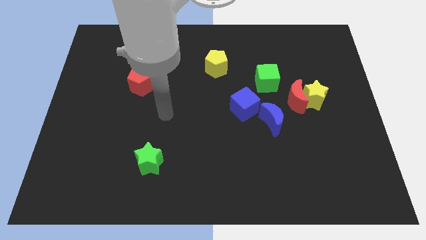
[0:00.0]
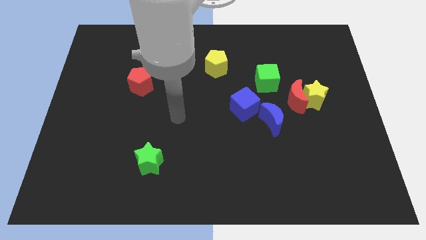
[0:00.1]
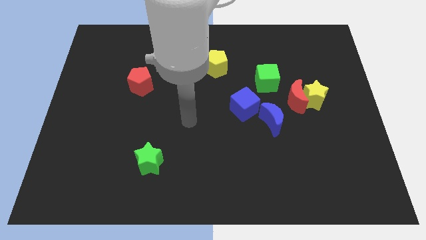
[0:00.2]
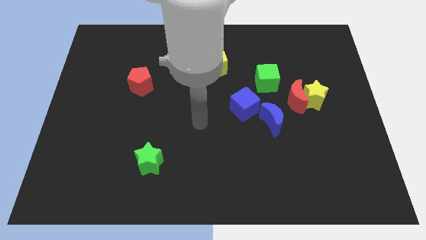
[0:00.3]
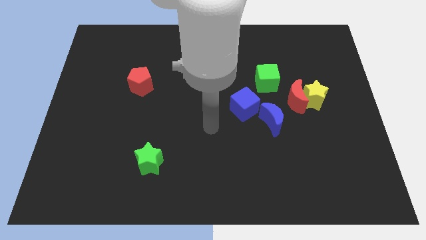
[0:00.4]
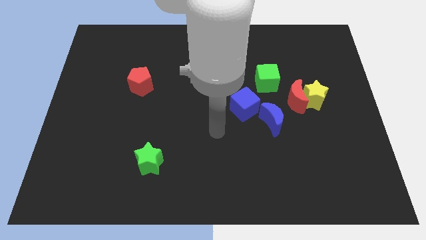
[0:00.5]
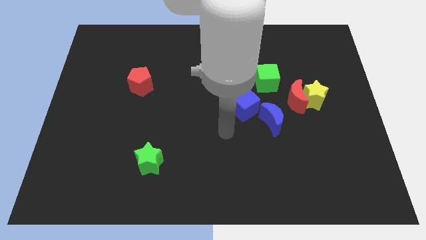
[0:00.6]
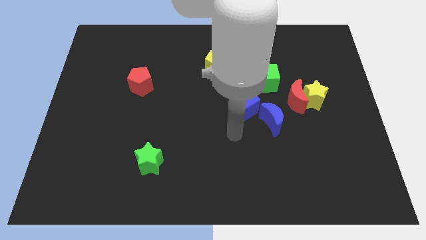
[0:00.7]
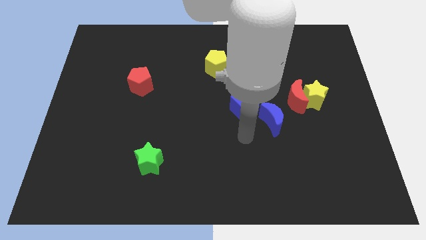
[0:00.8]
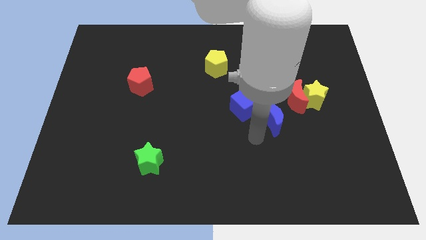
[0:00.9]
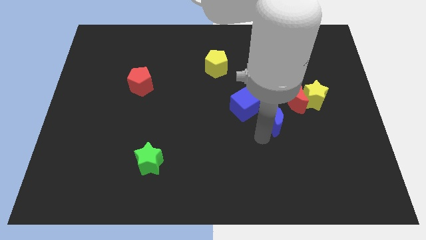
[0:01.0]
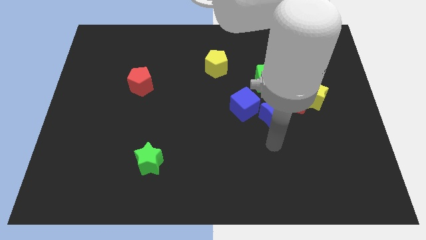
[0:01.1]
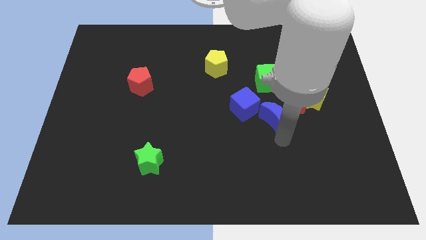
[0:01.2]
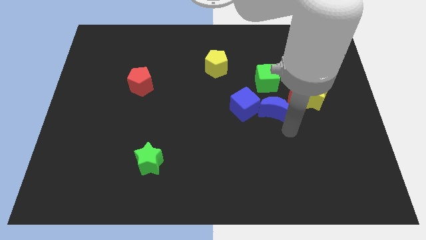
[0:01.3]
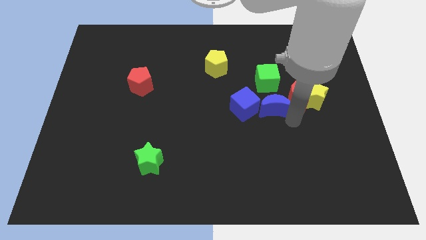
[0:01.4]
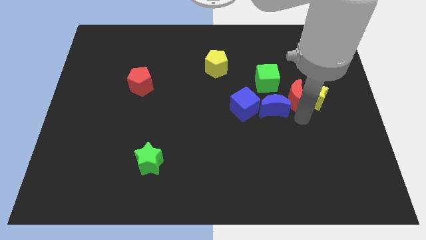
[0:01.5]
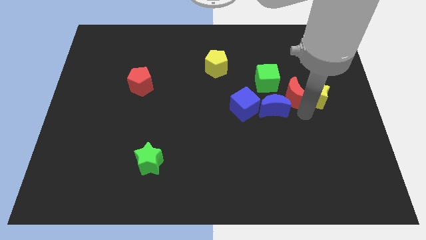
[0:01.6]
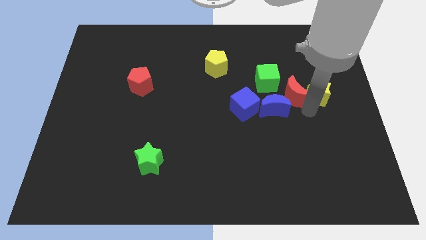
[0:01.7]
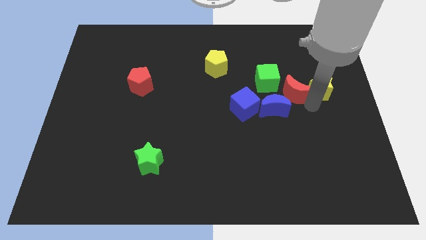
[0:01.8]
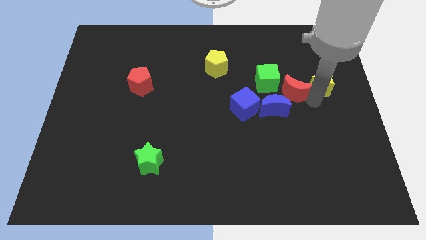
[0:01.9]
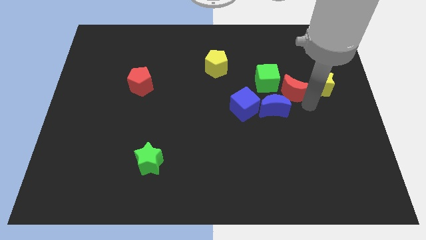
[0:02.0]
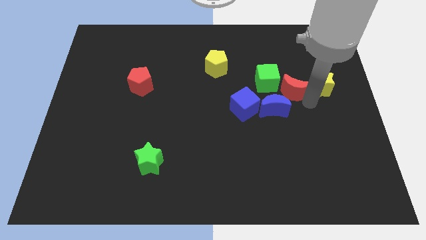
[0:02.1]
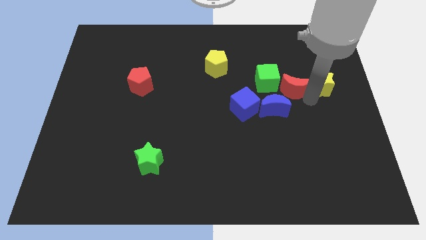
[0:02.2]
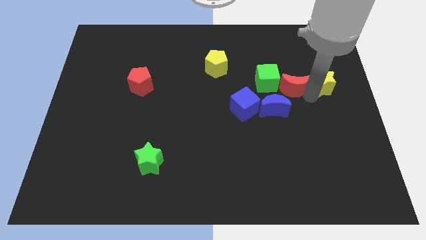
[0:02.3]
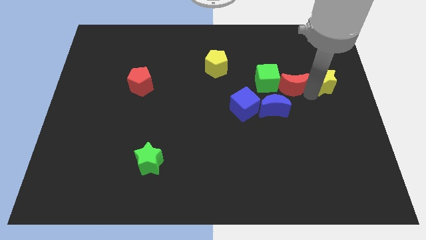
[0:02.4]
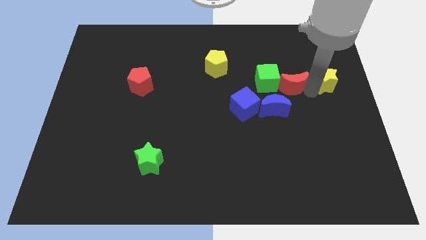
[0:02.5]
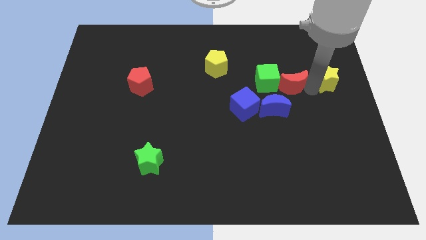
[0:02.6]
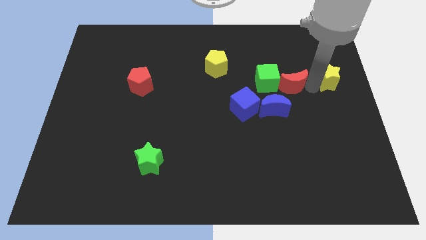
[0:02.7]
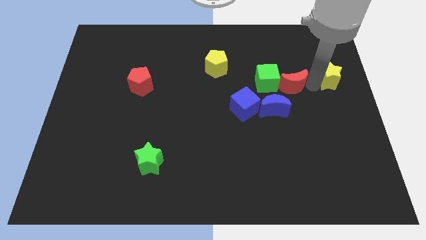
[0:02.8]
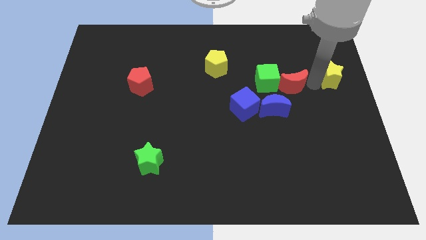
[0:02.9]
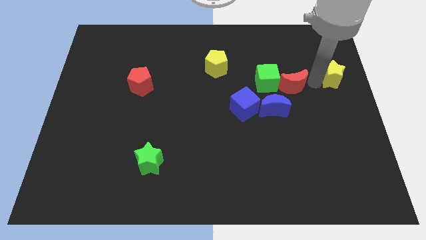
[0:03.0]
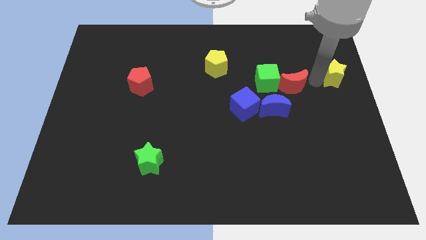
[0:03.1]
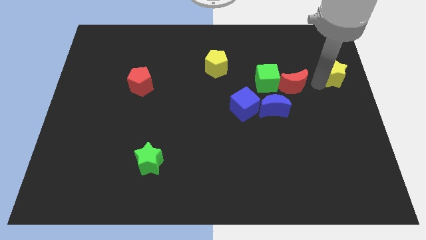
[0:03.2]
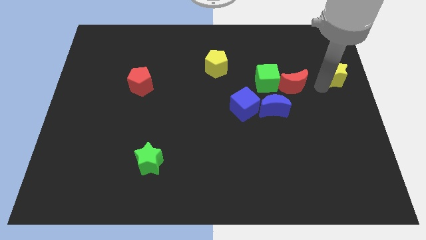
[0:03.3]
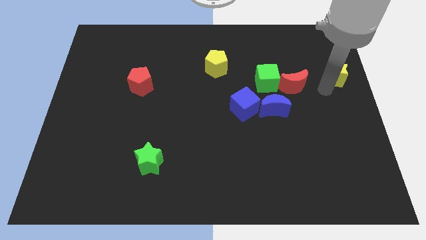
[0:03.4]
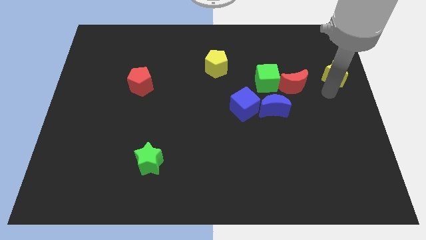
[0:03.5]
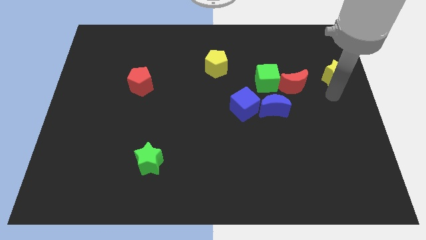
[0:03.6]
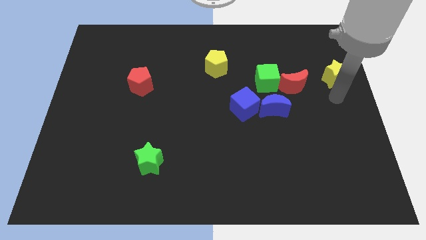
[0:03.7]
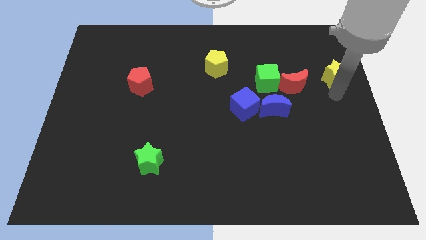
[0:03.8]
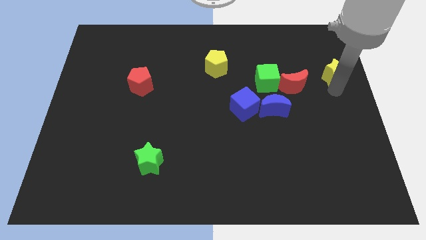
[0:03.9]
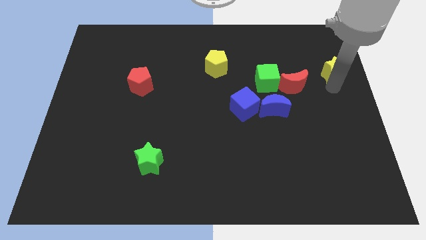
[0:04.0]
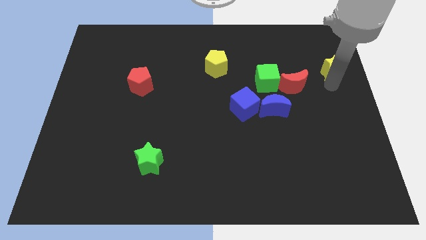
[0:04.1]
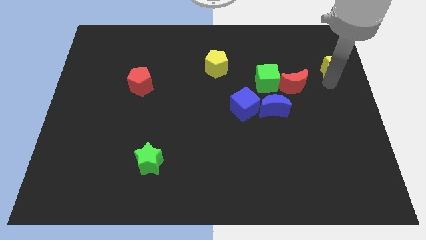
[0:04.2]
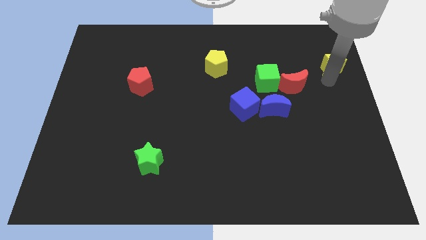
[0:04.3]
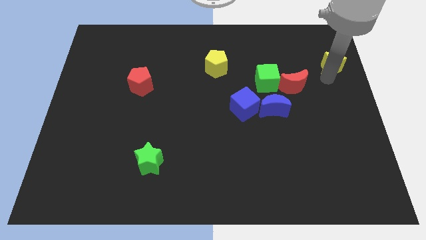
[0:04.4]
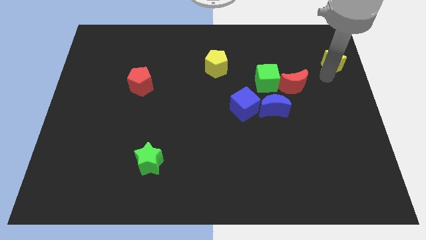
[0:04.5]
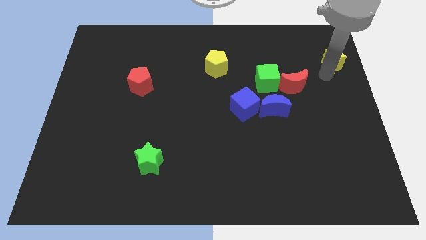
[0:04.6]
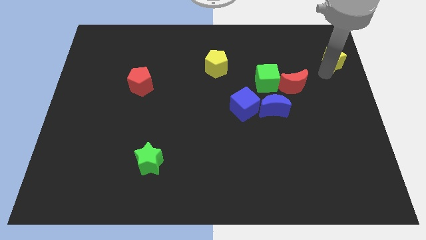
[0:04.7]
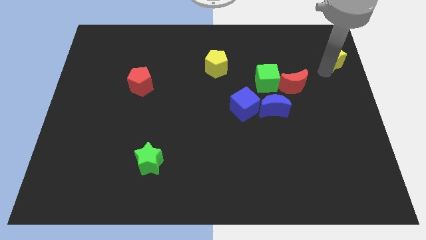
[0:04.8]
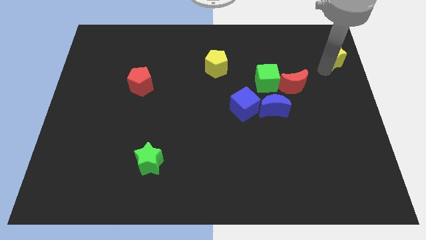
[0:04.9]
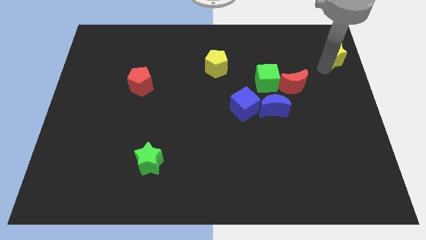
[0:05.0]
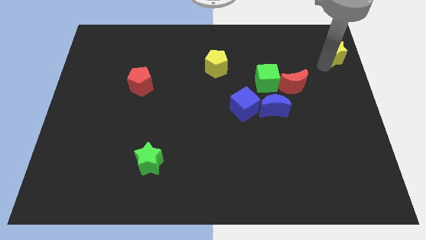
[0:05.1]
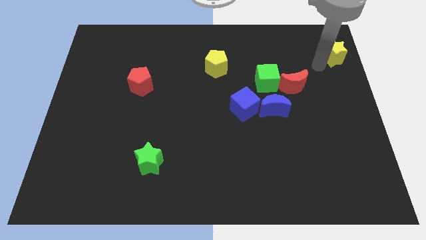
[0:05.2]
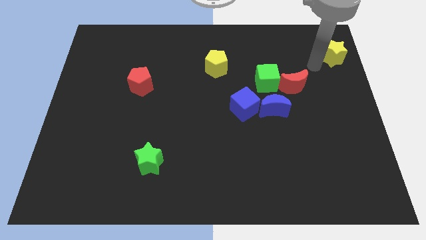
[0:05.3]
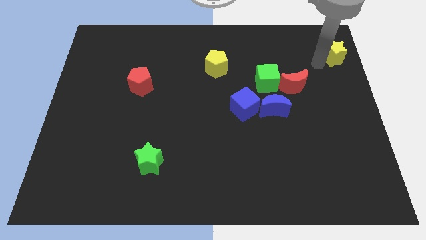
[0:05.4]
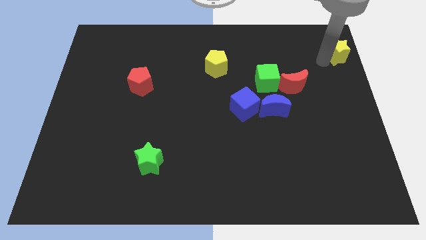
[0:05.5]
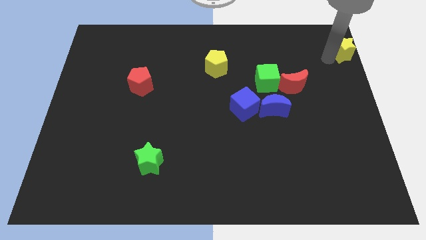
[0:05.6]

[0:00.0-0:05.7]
push the yellow star to the top right corner

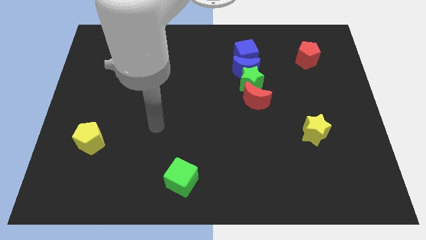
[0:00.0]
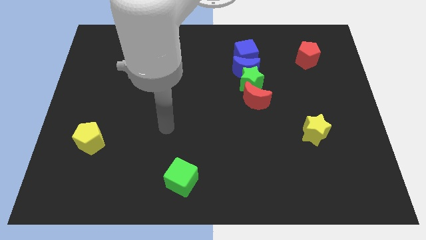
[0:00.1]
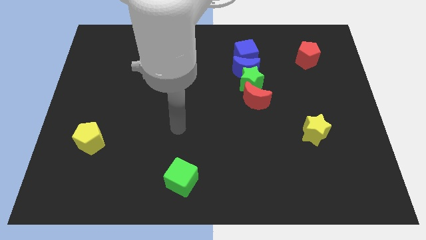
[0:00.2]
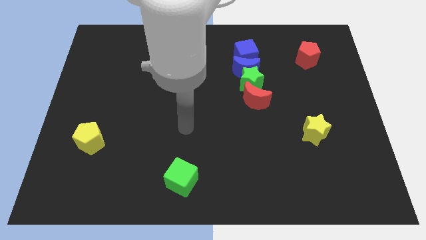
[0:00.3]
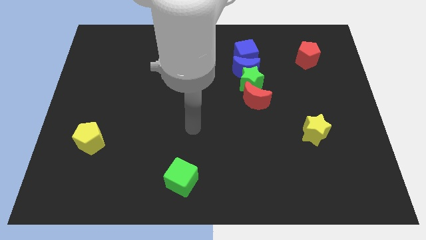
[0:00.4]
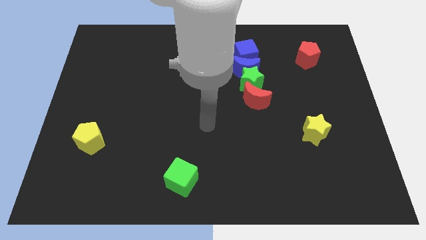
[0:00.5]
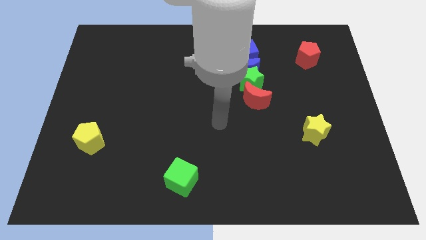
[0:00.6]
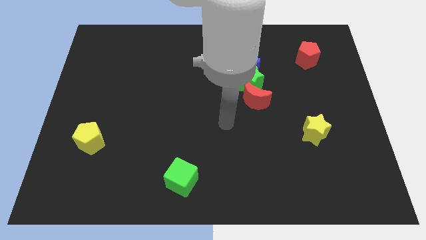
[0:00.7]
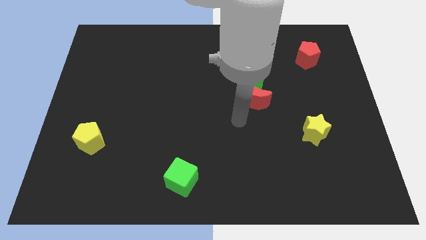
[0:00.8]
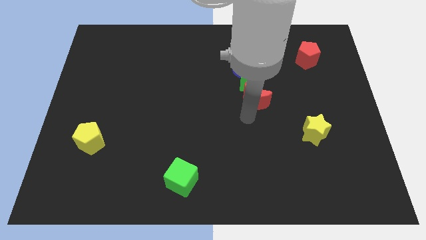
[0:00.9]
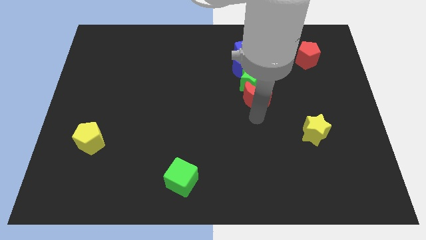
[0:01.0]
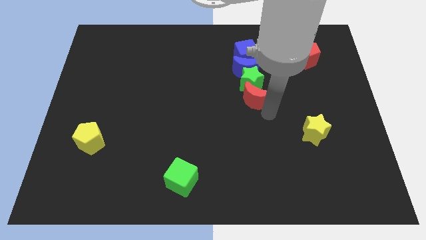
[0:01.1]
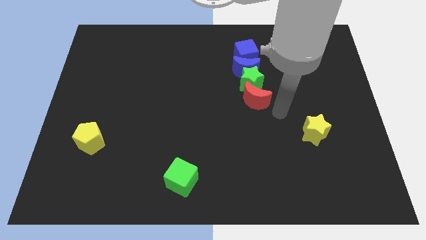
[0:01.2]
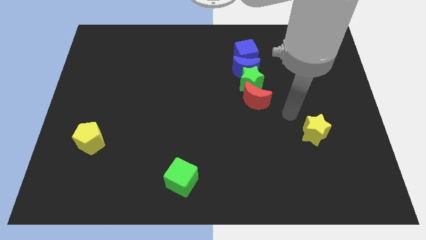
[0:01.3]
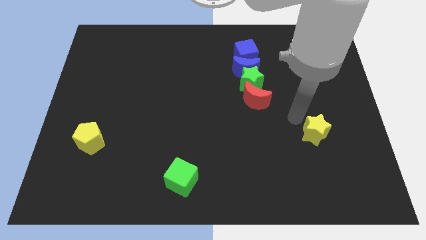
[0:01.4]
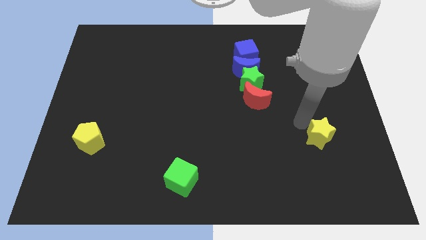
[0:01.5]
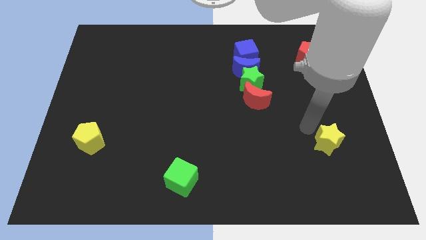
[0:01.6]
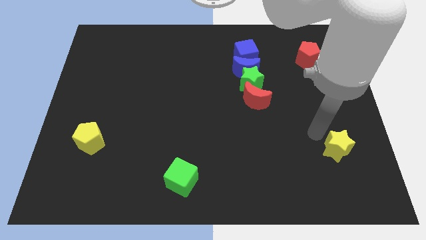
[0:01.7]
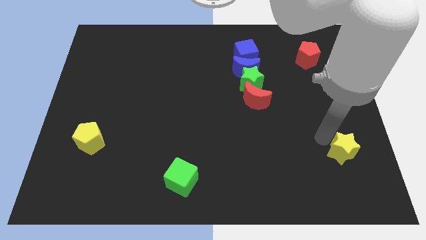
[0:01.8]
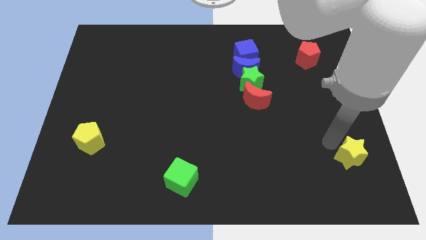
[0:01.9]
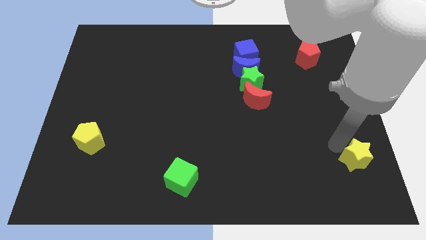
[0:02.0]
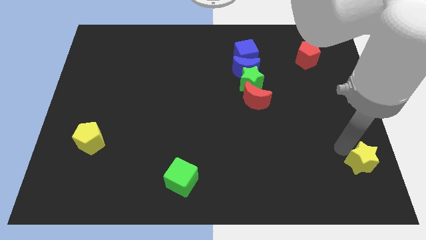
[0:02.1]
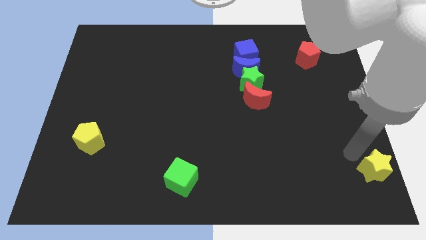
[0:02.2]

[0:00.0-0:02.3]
slide the yellow star to the bottom right of the board

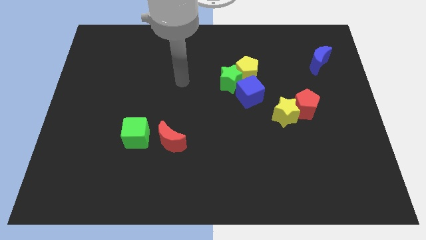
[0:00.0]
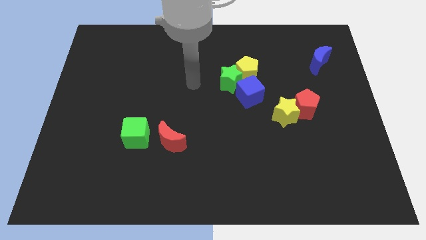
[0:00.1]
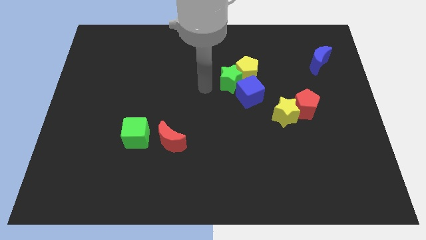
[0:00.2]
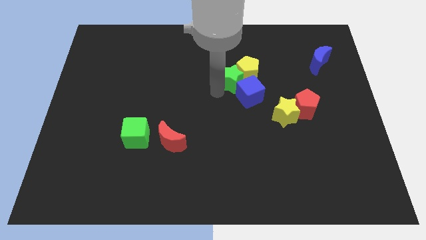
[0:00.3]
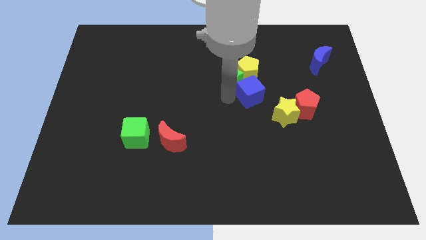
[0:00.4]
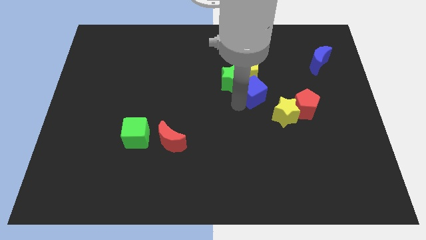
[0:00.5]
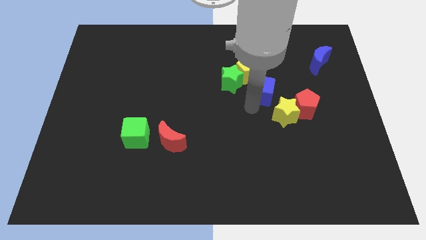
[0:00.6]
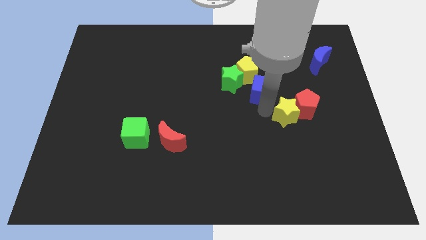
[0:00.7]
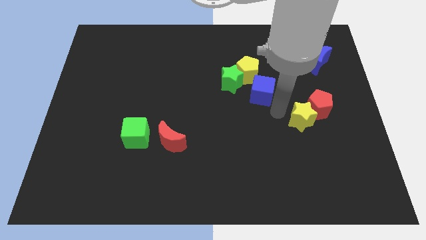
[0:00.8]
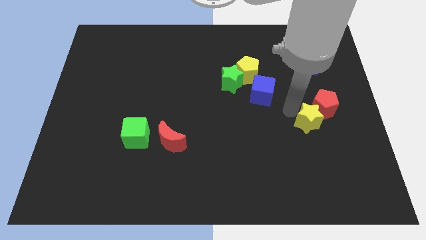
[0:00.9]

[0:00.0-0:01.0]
move the red pentagon to the center right
